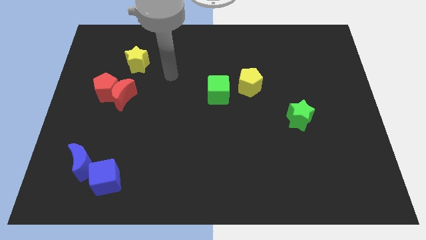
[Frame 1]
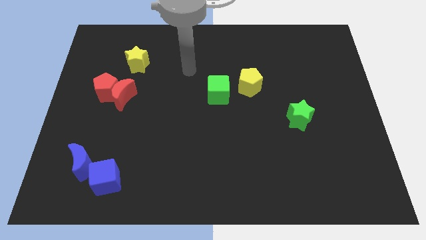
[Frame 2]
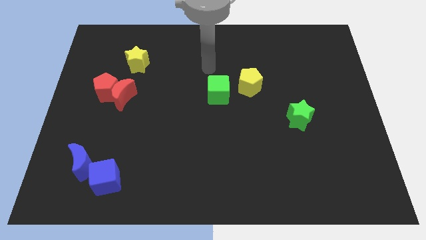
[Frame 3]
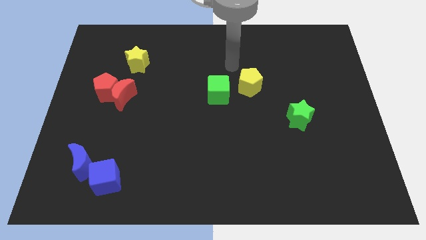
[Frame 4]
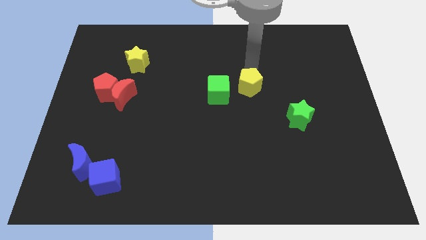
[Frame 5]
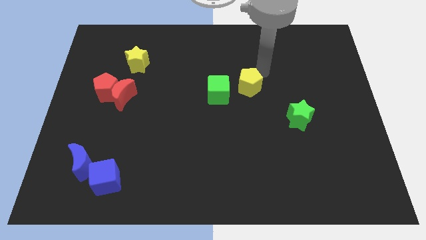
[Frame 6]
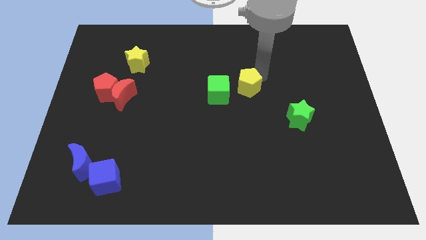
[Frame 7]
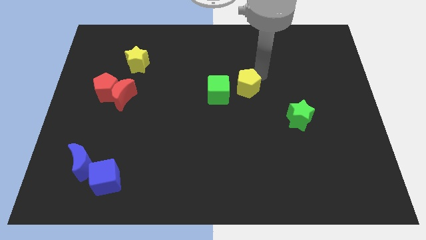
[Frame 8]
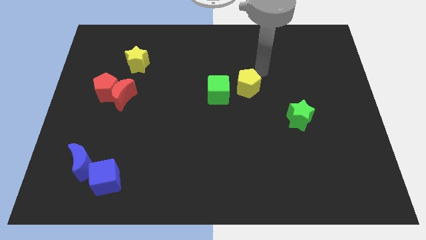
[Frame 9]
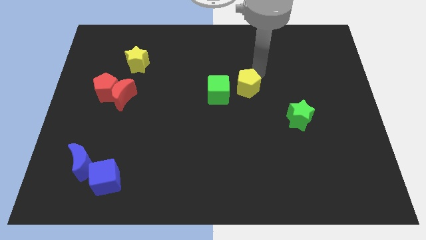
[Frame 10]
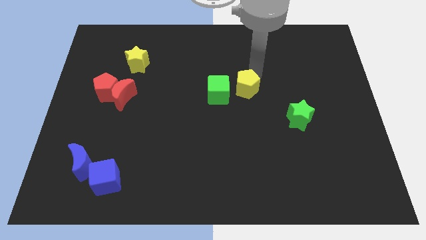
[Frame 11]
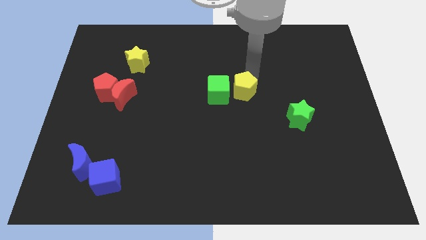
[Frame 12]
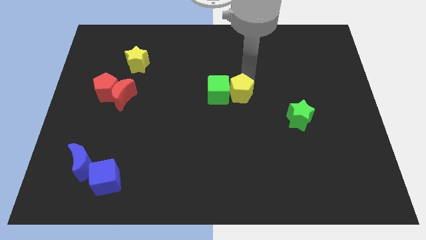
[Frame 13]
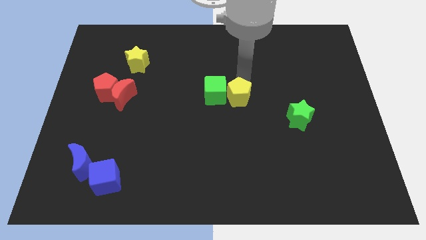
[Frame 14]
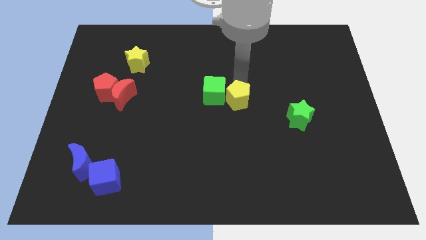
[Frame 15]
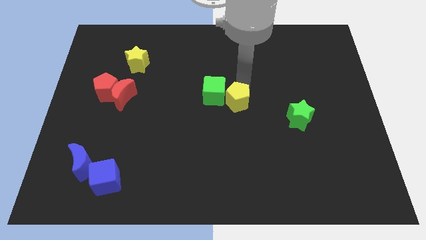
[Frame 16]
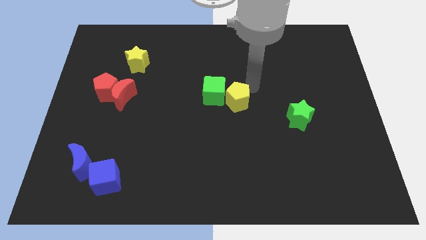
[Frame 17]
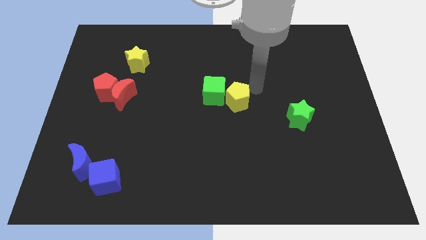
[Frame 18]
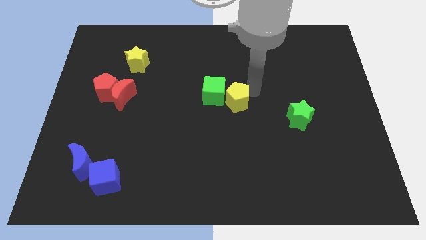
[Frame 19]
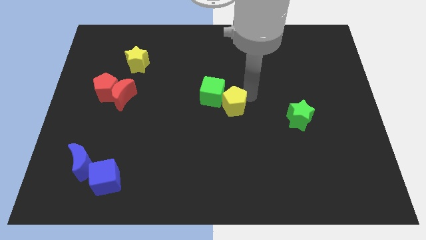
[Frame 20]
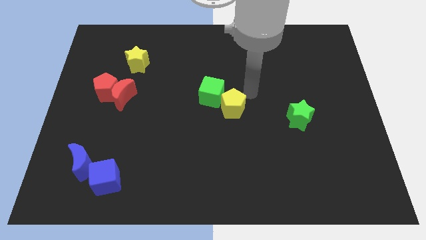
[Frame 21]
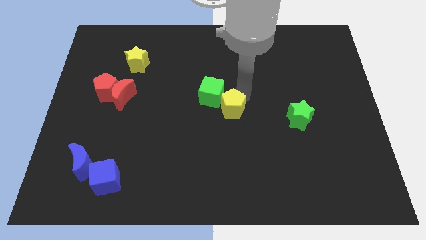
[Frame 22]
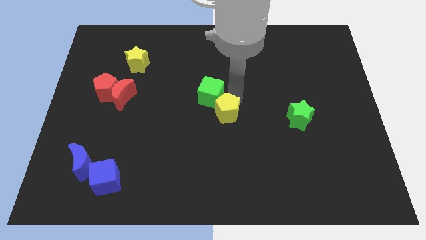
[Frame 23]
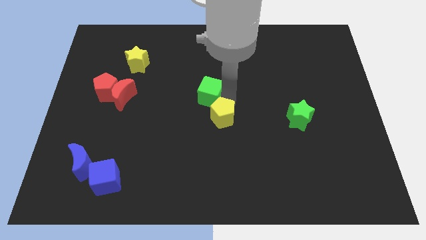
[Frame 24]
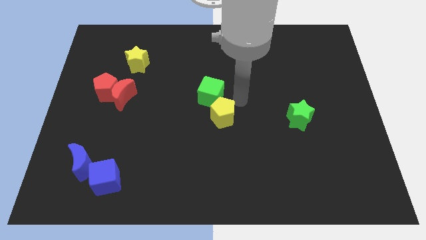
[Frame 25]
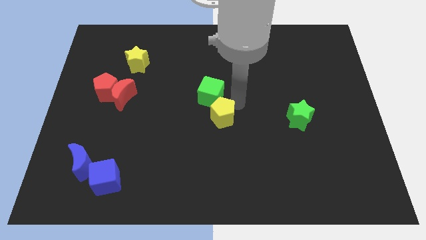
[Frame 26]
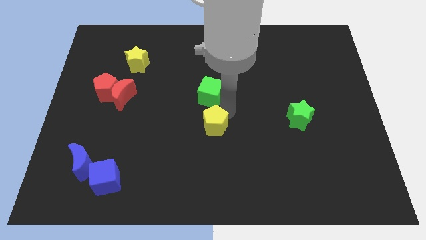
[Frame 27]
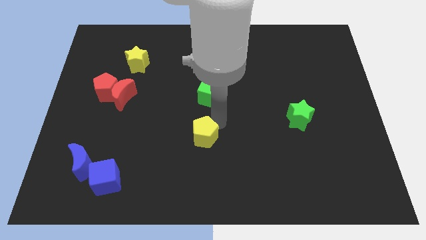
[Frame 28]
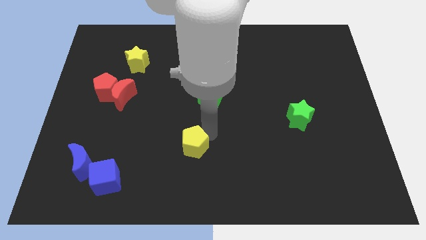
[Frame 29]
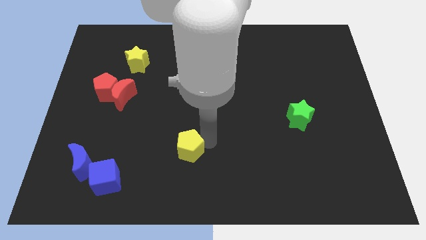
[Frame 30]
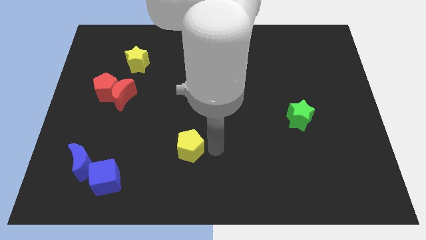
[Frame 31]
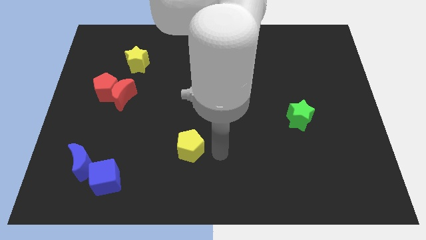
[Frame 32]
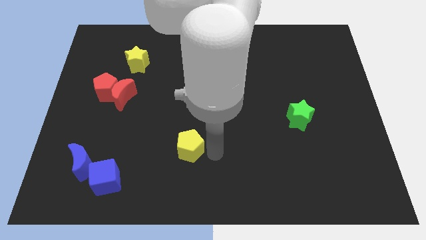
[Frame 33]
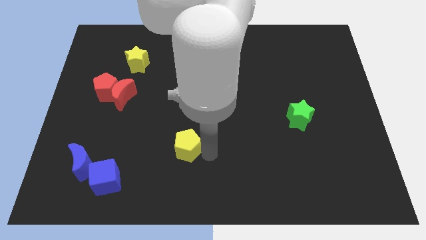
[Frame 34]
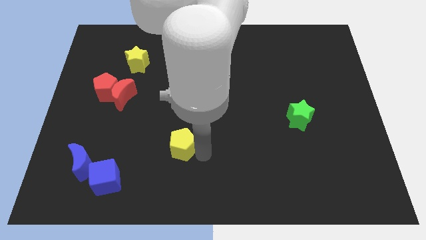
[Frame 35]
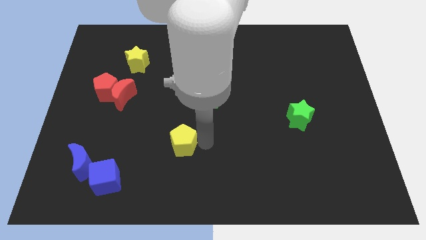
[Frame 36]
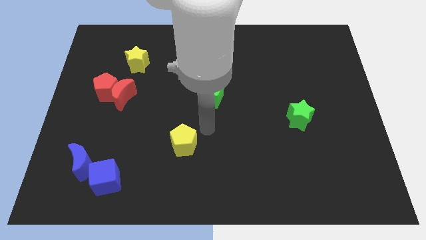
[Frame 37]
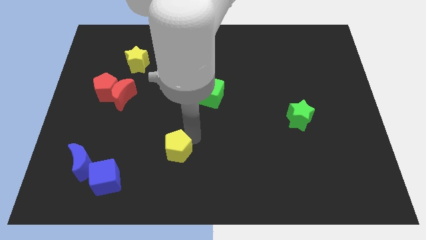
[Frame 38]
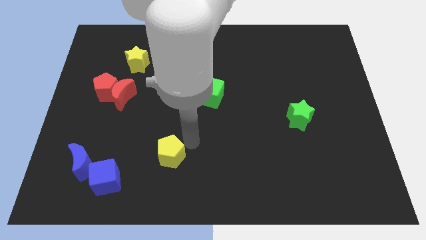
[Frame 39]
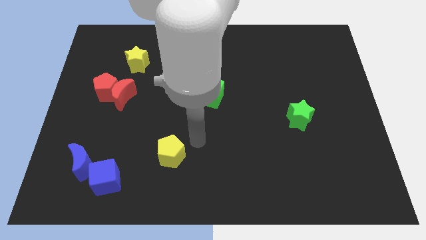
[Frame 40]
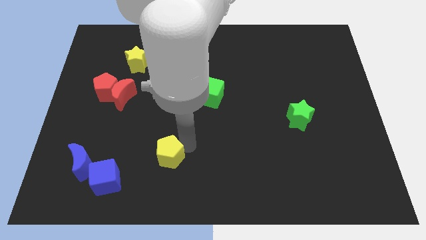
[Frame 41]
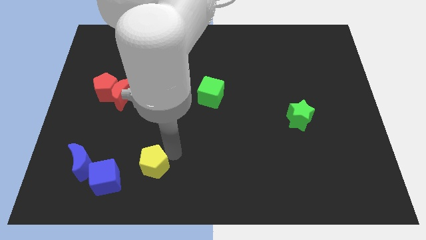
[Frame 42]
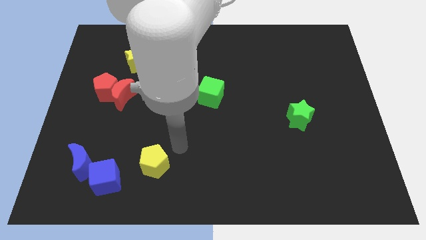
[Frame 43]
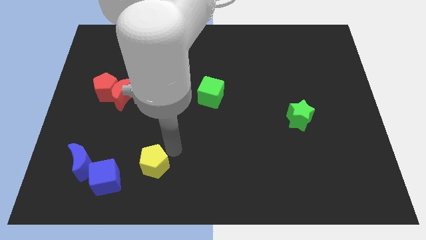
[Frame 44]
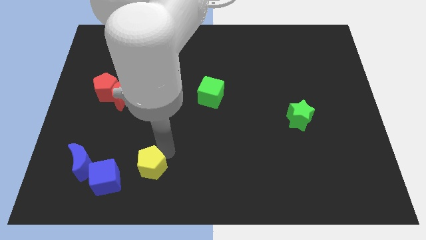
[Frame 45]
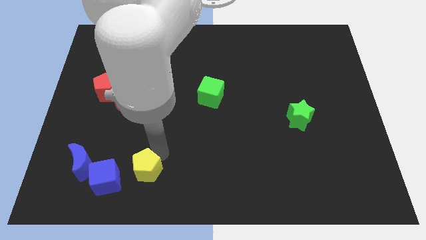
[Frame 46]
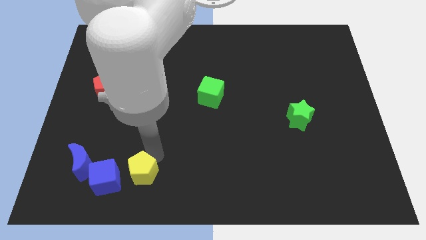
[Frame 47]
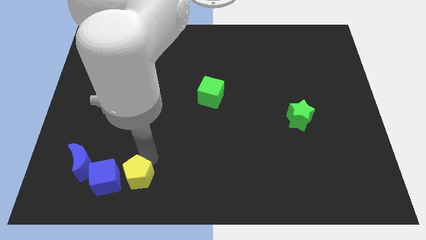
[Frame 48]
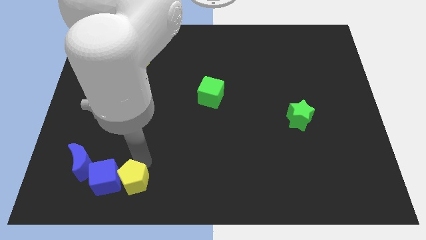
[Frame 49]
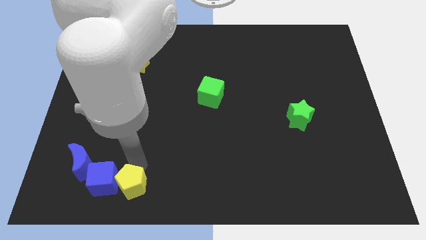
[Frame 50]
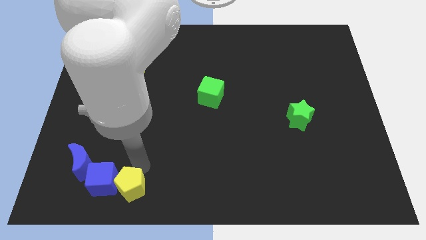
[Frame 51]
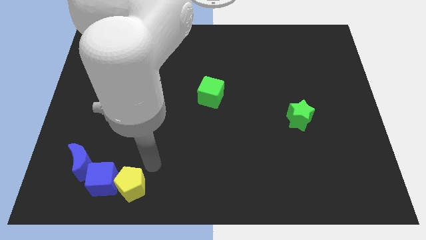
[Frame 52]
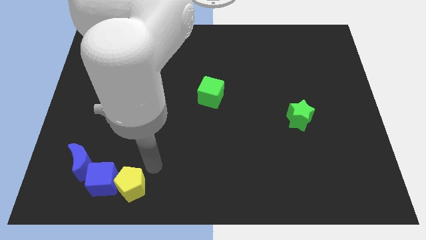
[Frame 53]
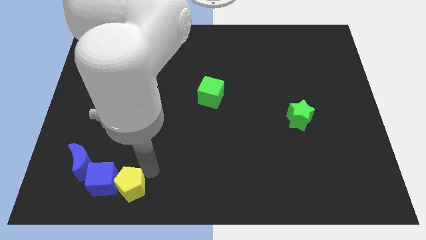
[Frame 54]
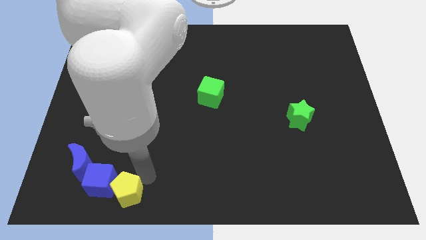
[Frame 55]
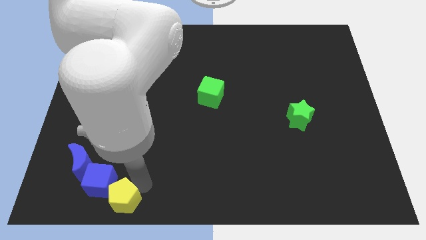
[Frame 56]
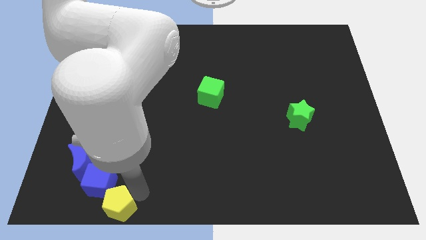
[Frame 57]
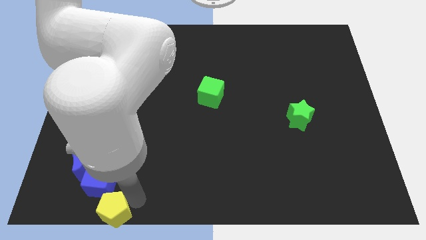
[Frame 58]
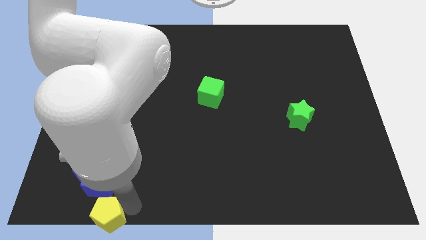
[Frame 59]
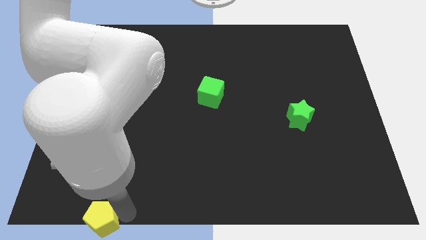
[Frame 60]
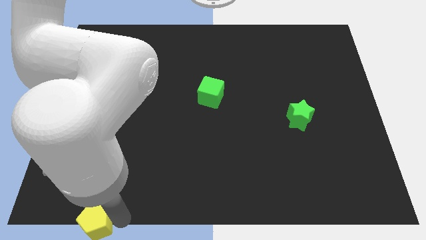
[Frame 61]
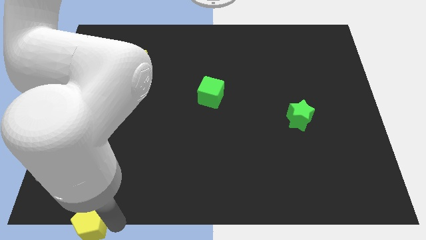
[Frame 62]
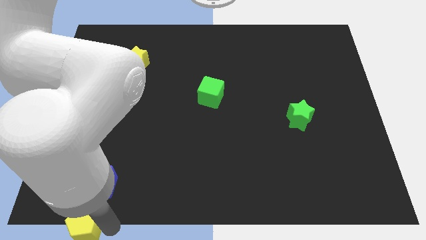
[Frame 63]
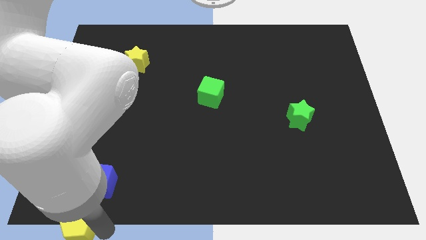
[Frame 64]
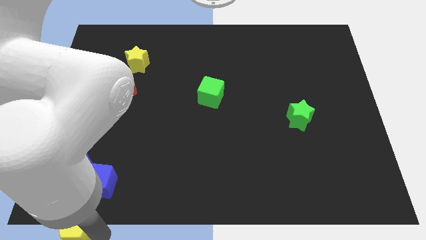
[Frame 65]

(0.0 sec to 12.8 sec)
move the yellow pentagon to the bottom left

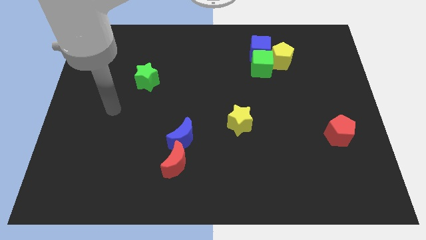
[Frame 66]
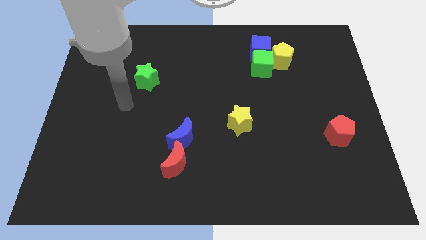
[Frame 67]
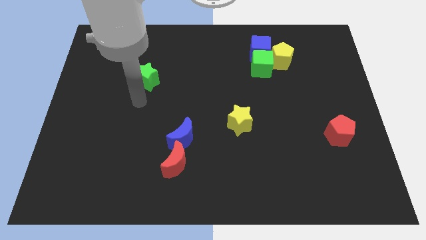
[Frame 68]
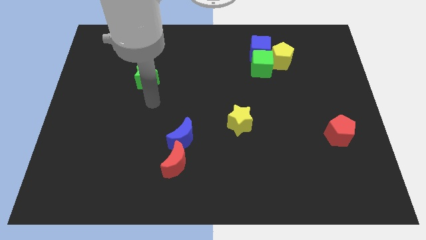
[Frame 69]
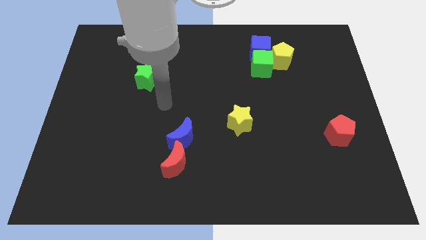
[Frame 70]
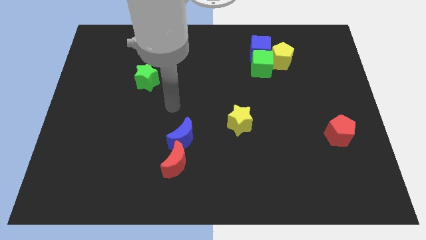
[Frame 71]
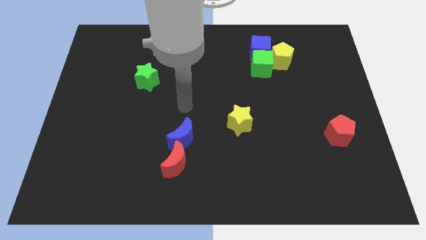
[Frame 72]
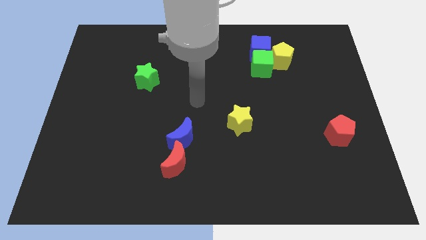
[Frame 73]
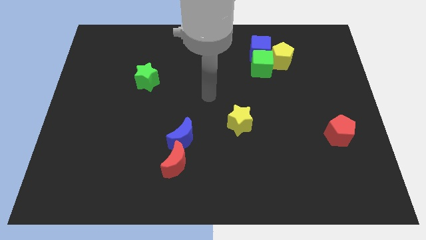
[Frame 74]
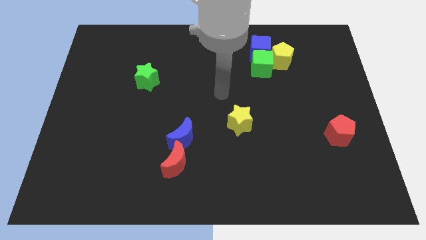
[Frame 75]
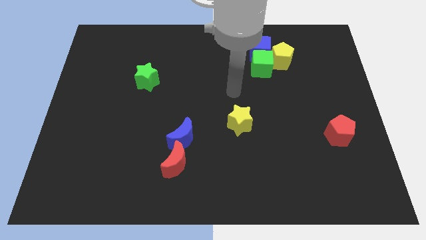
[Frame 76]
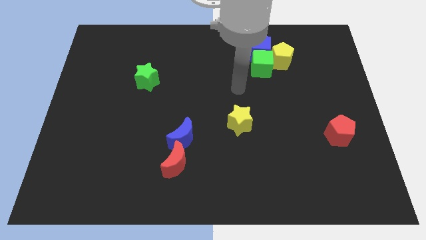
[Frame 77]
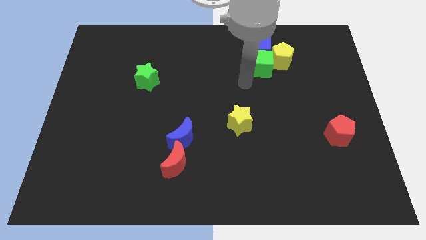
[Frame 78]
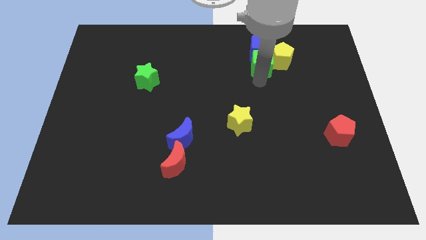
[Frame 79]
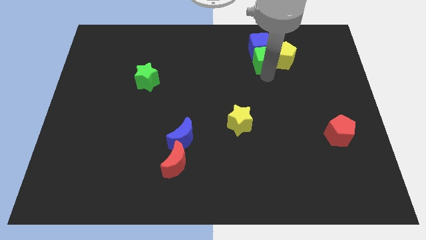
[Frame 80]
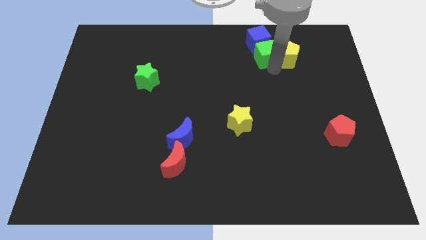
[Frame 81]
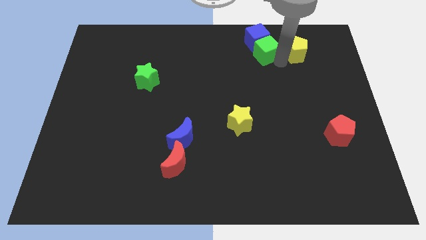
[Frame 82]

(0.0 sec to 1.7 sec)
slide the blue cube to the towards your base
